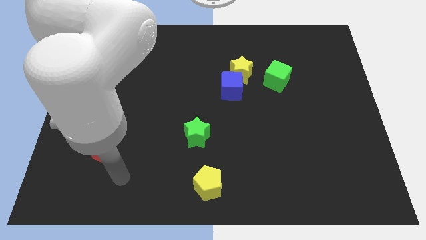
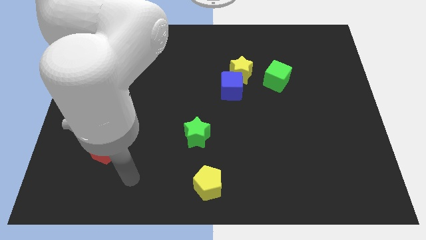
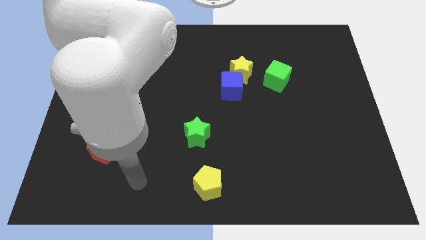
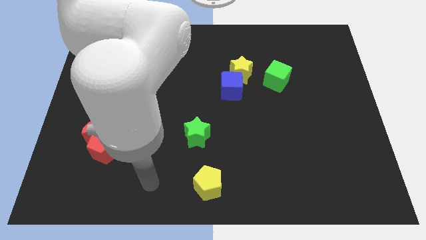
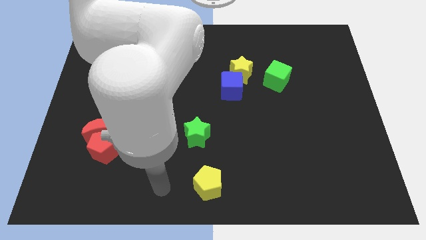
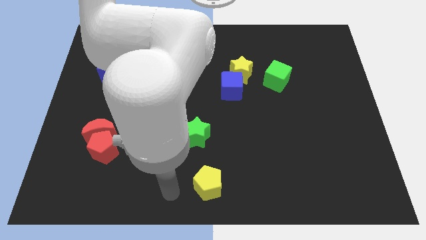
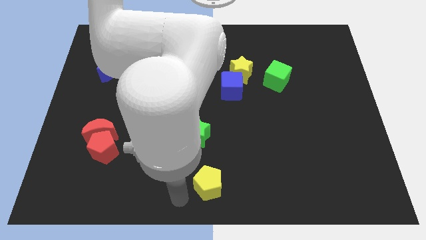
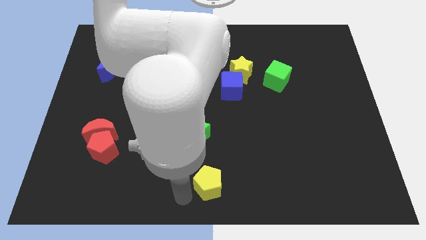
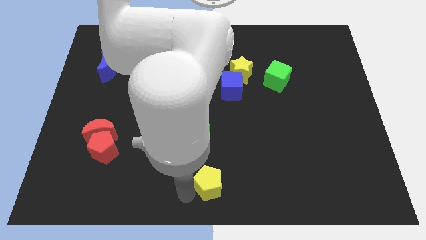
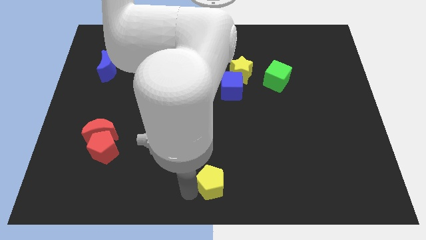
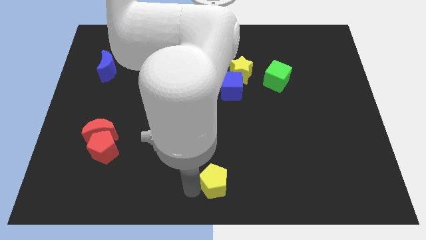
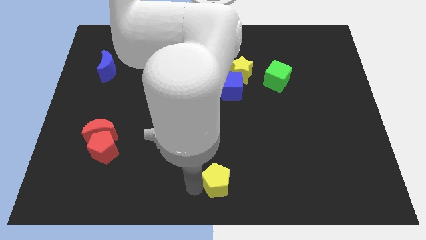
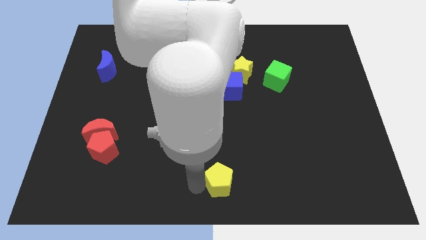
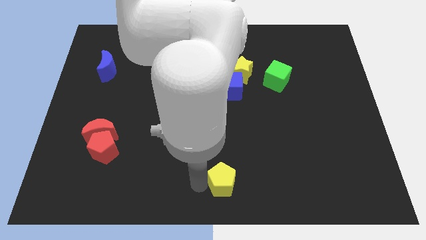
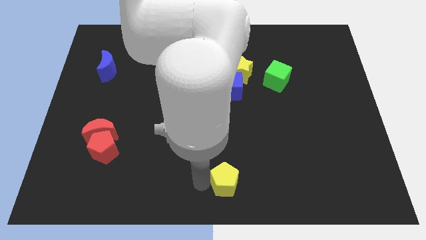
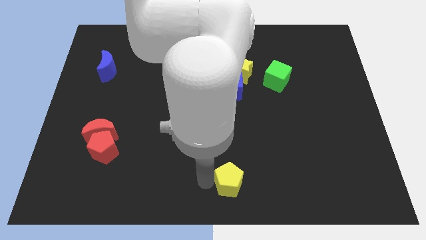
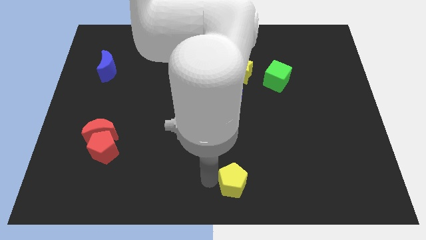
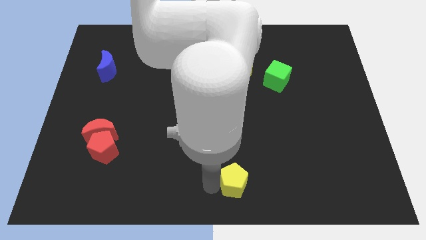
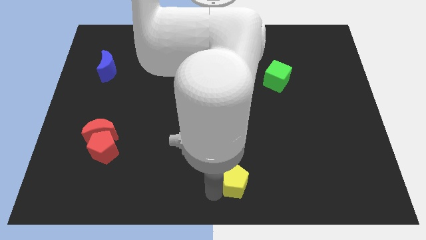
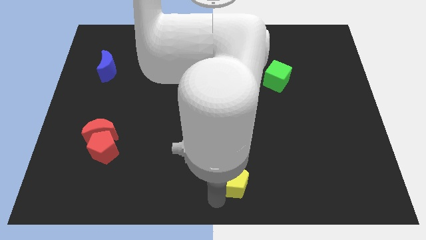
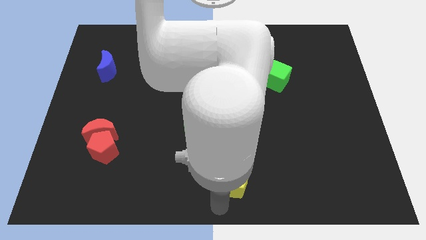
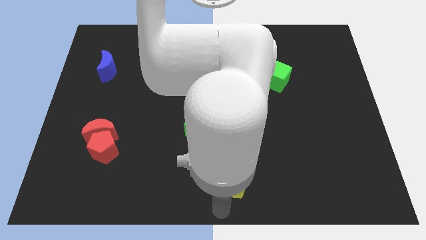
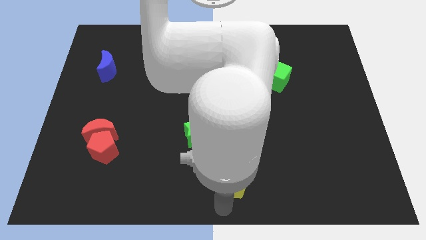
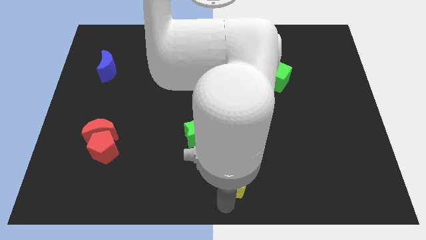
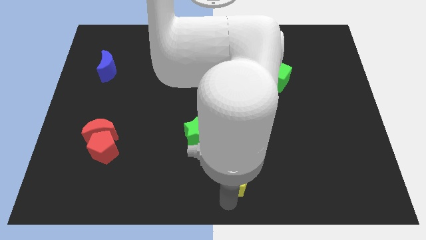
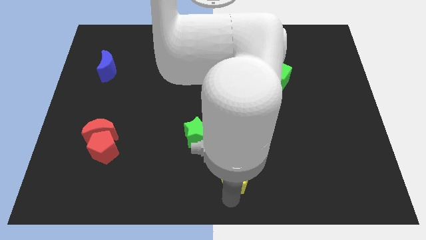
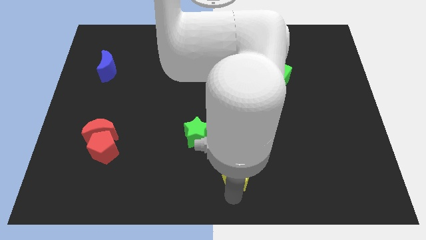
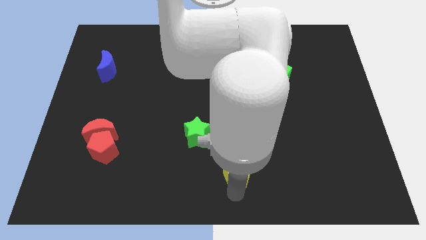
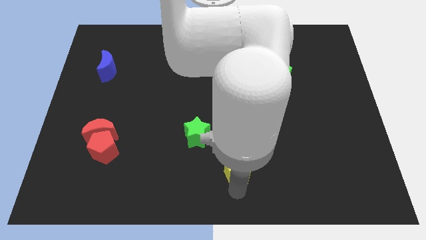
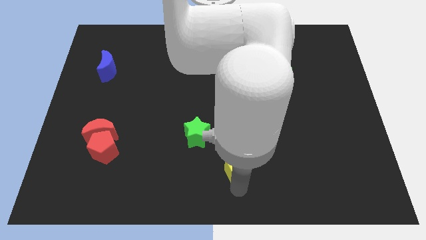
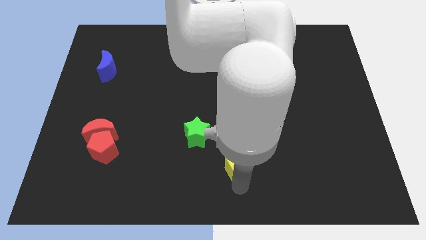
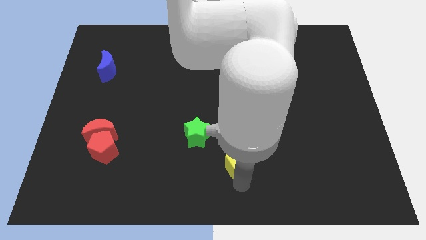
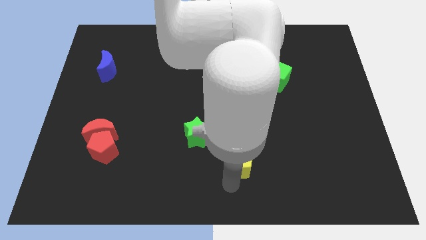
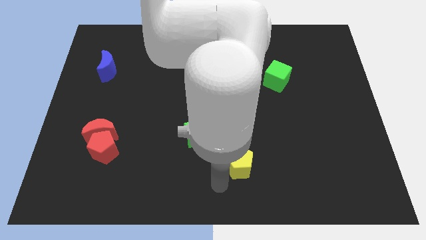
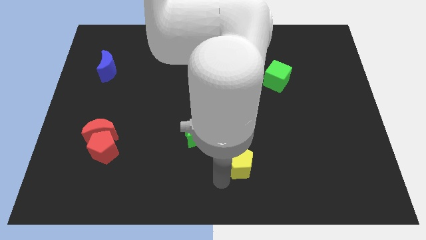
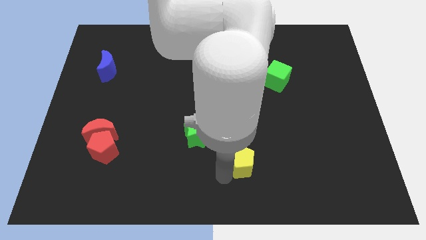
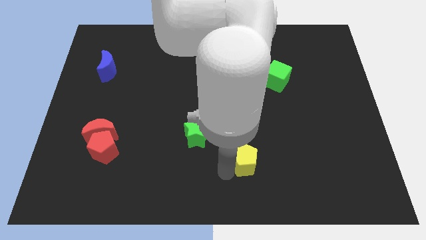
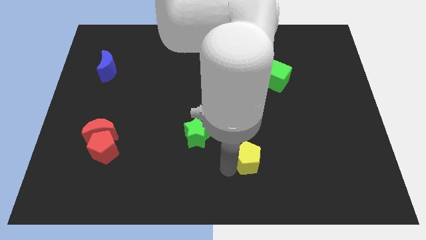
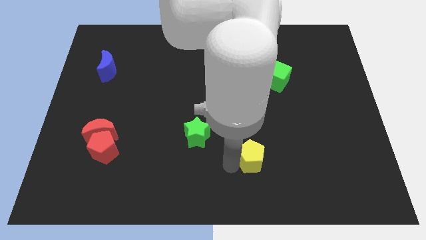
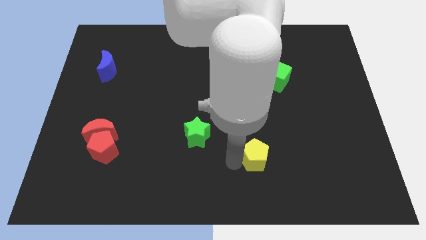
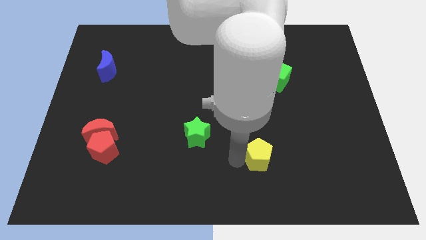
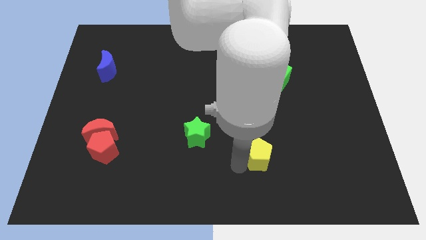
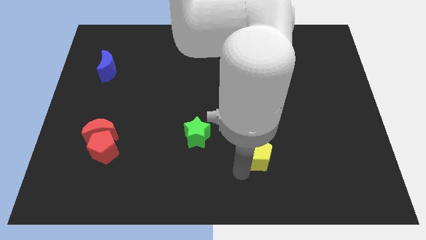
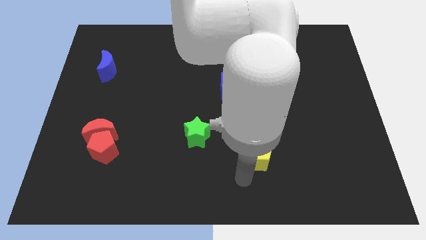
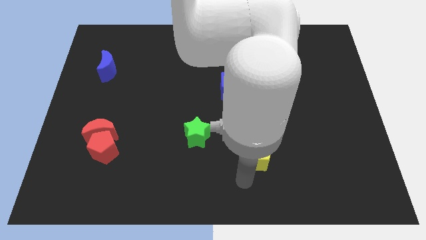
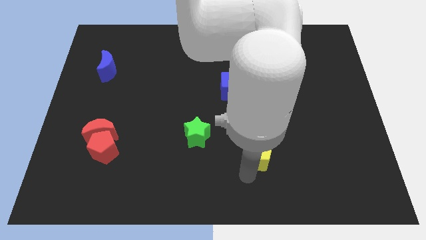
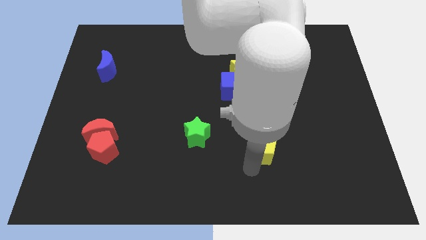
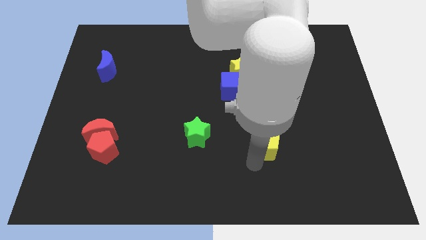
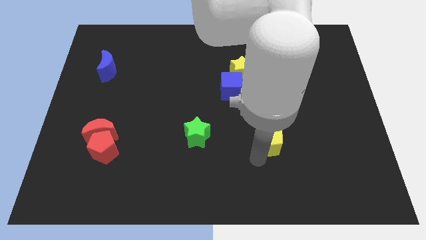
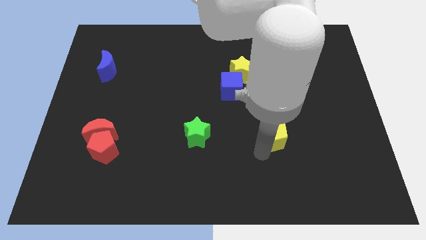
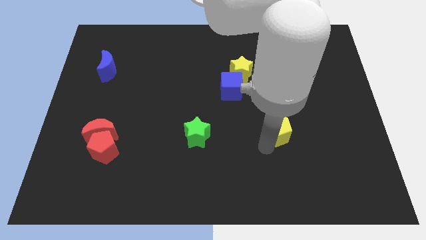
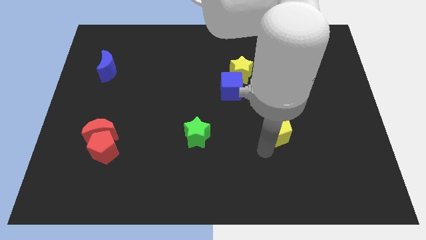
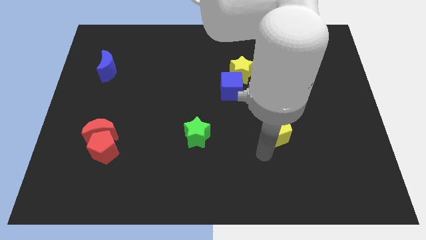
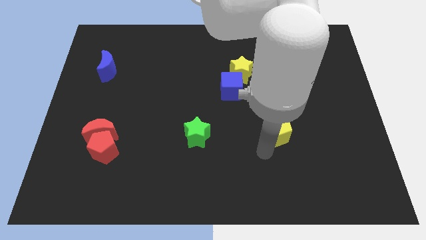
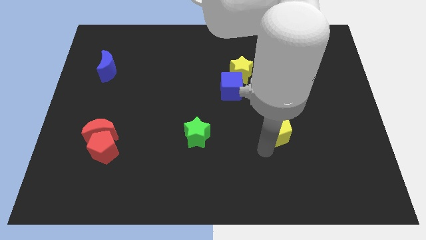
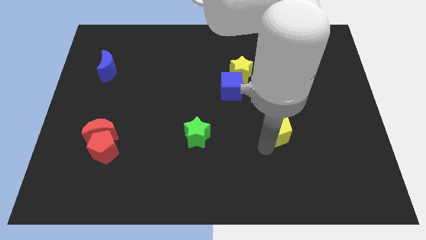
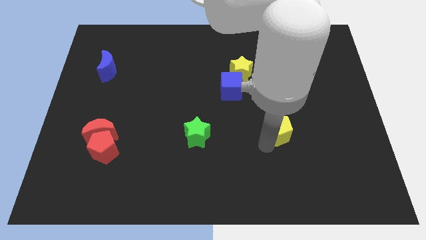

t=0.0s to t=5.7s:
move the yellow pentagon diagonally upwards and right

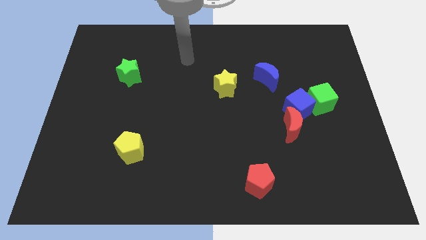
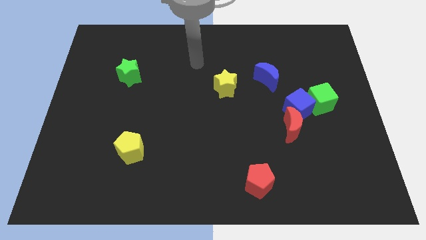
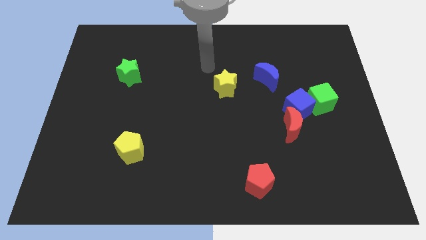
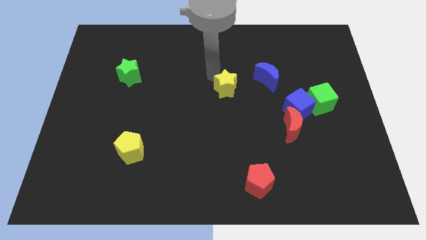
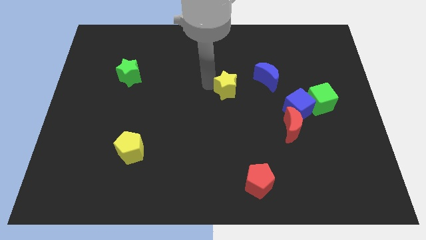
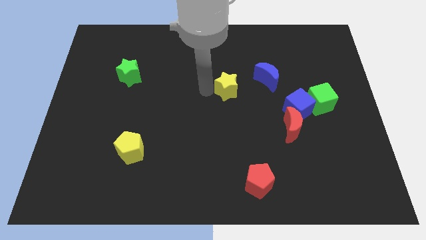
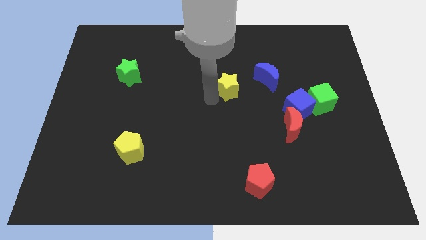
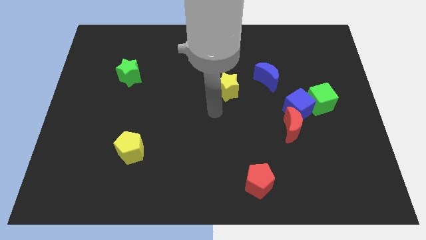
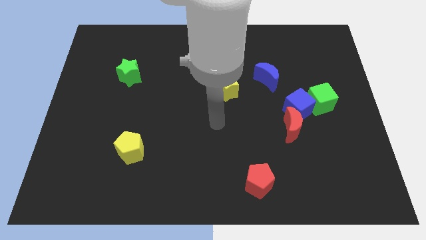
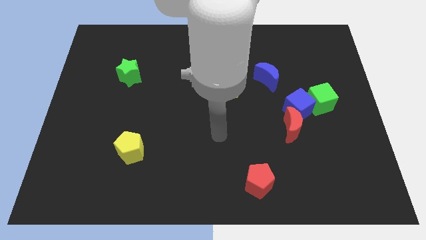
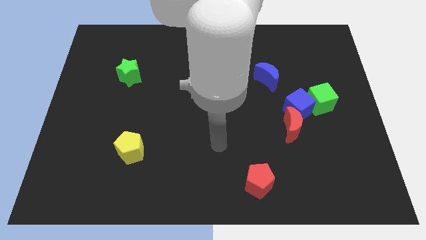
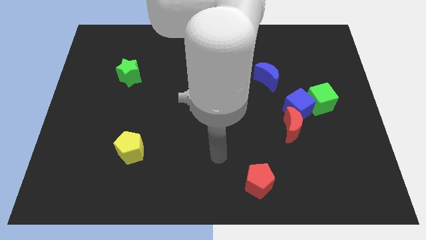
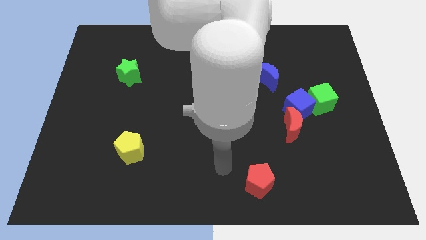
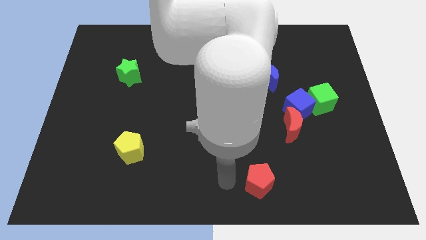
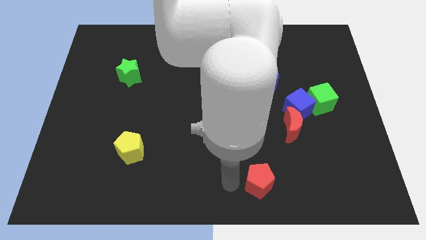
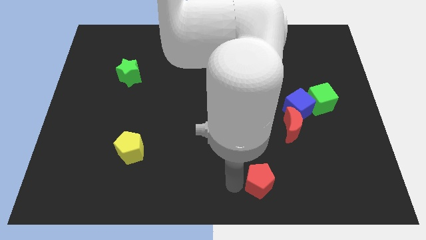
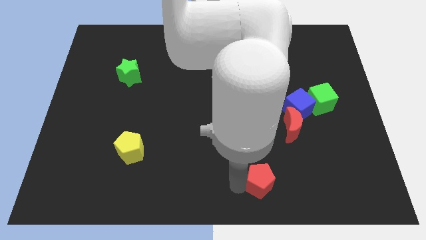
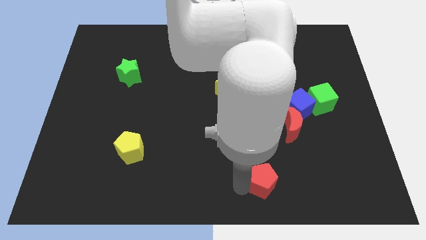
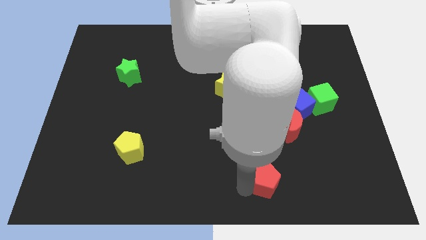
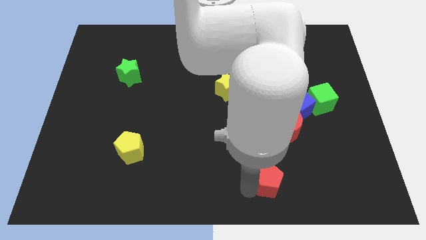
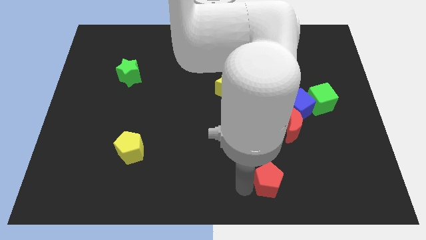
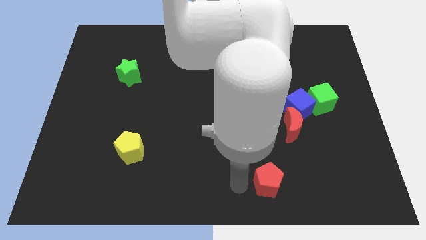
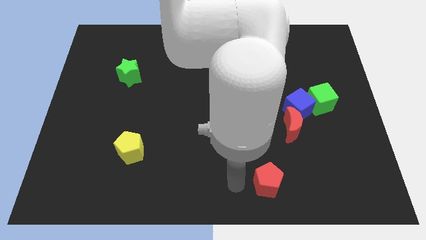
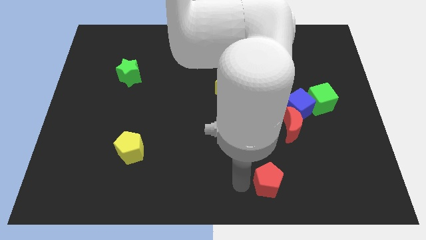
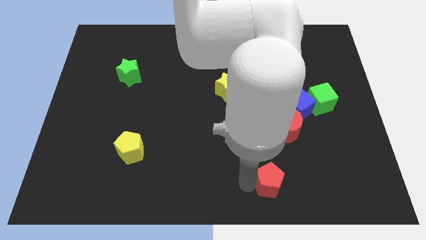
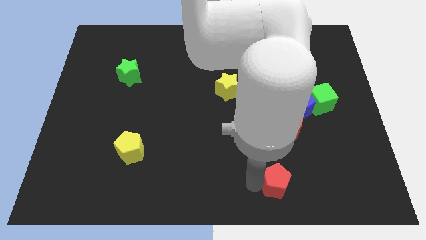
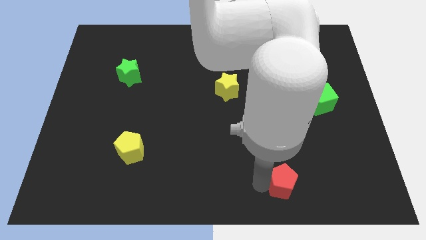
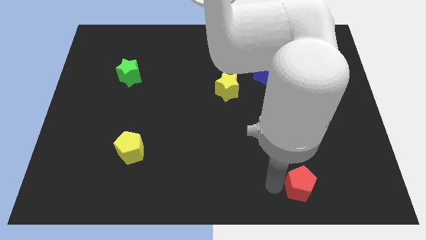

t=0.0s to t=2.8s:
move the red pentagon somewhat right
